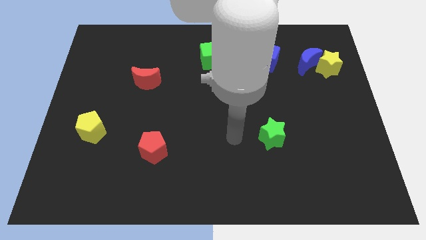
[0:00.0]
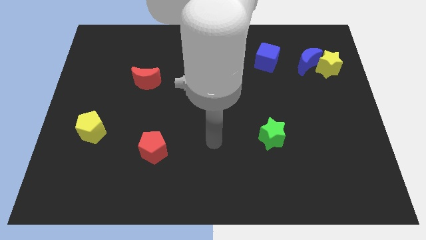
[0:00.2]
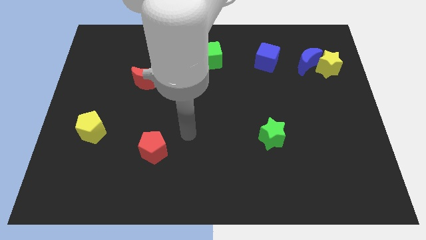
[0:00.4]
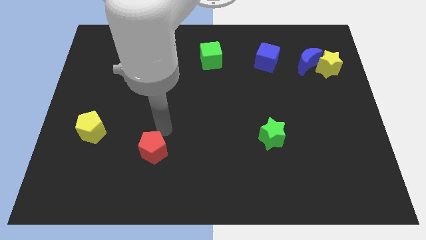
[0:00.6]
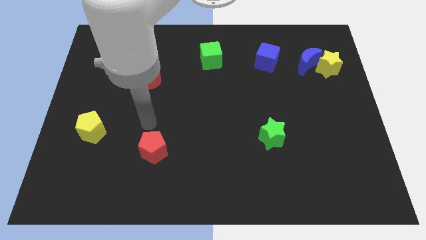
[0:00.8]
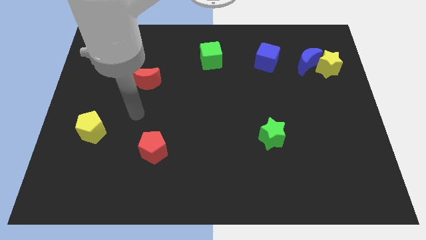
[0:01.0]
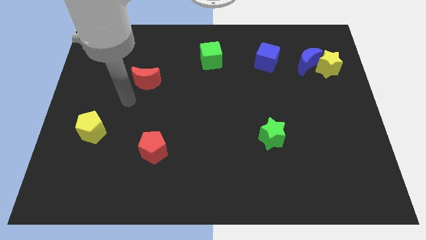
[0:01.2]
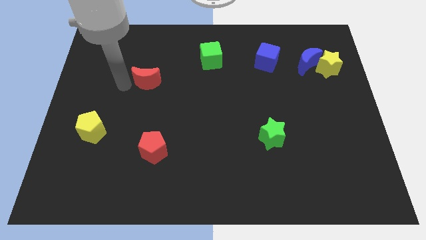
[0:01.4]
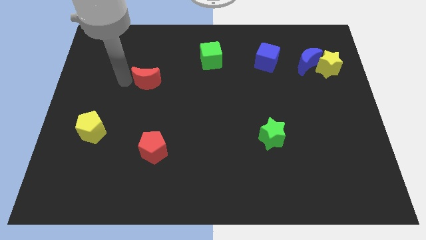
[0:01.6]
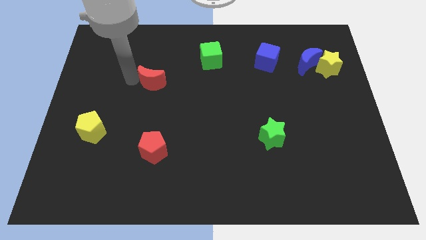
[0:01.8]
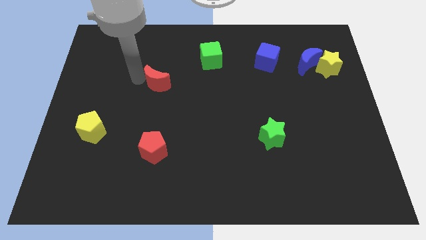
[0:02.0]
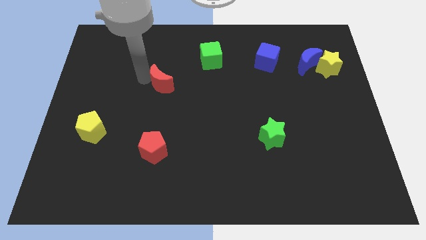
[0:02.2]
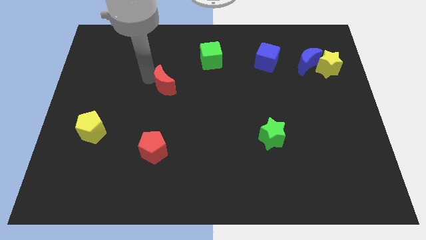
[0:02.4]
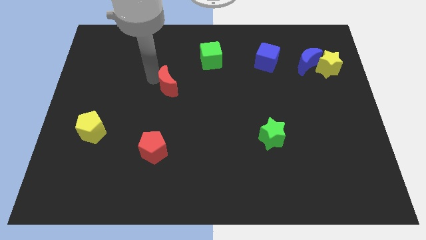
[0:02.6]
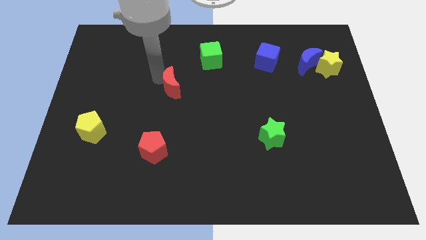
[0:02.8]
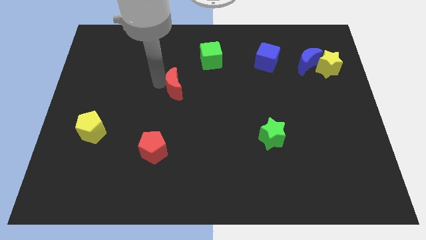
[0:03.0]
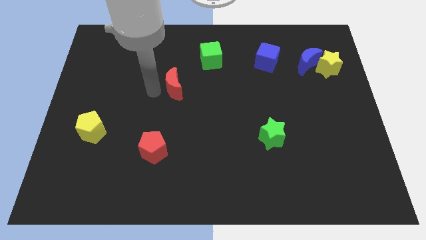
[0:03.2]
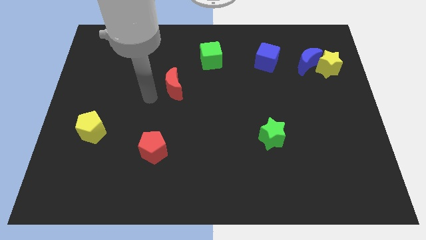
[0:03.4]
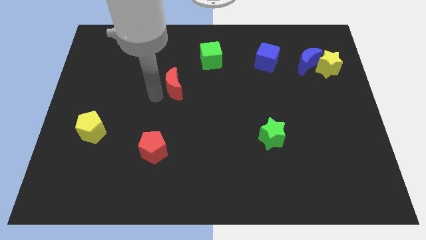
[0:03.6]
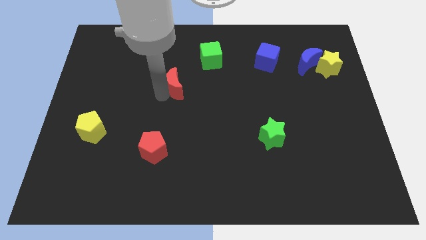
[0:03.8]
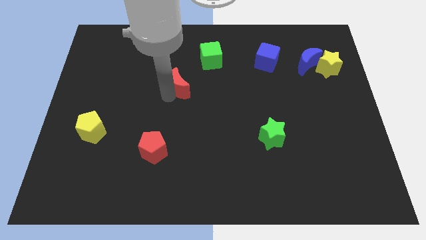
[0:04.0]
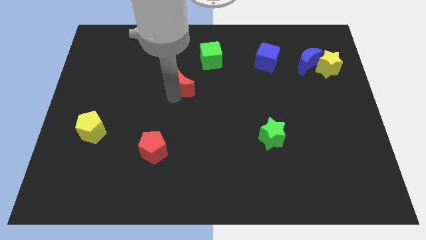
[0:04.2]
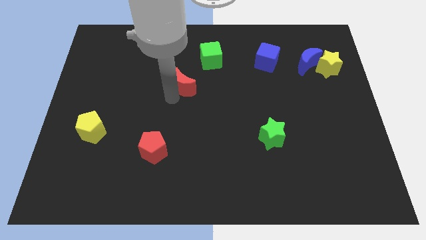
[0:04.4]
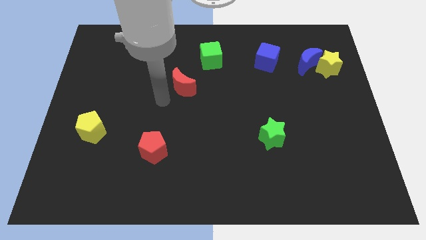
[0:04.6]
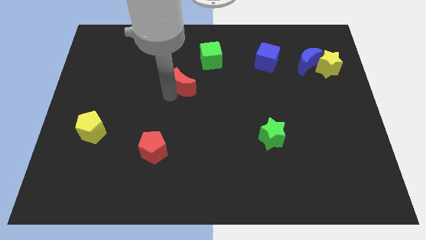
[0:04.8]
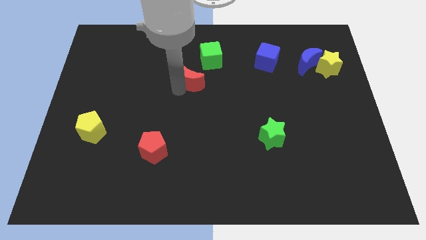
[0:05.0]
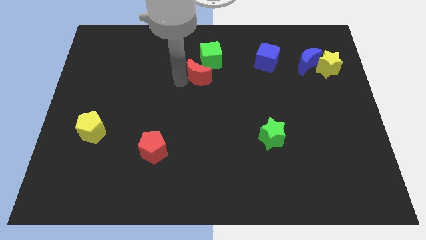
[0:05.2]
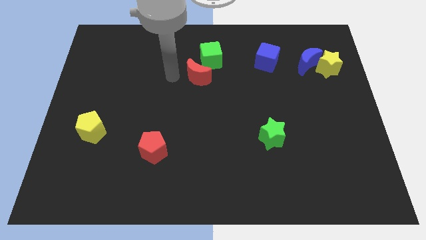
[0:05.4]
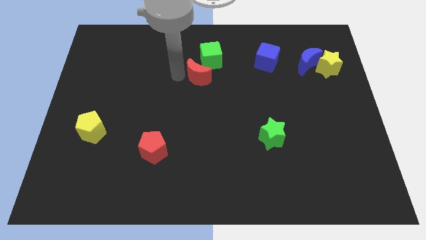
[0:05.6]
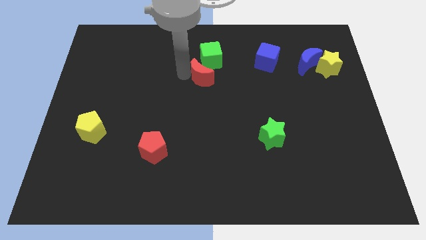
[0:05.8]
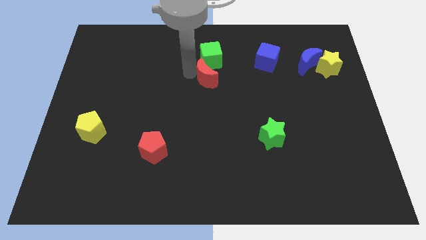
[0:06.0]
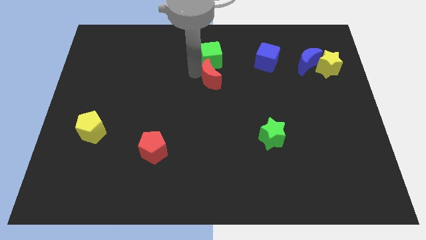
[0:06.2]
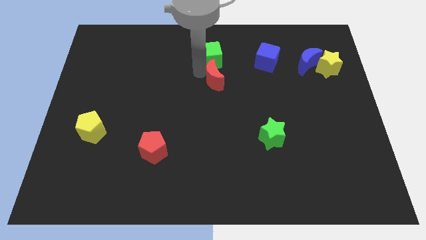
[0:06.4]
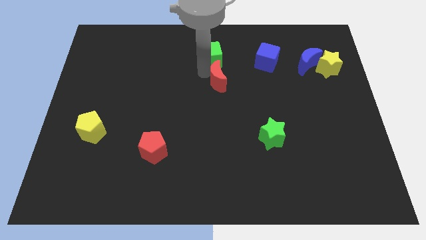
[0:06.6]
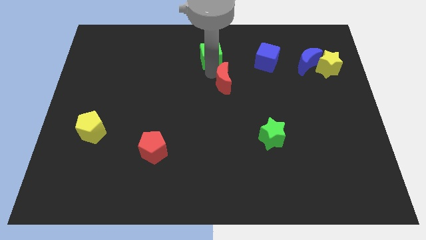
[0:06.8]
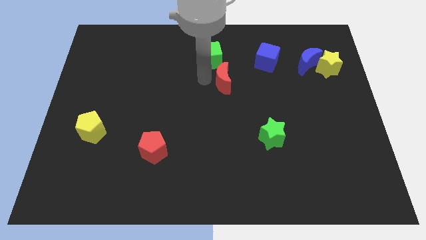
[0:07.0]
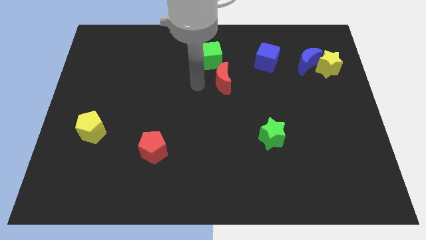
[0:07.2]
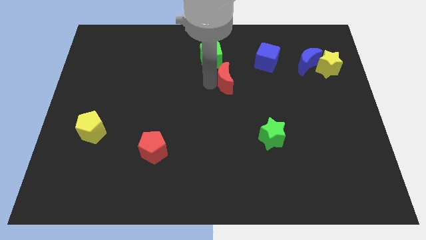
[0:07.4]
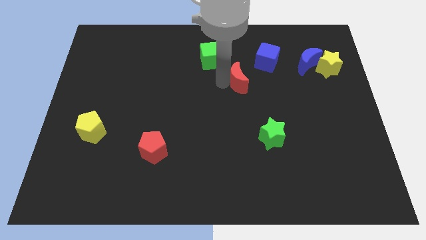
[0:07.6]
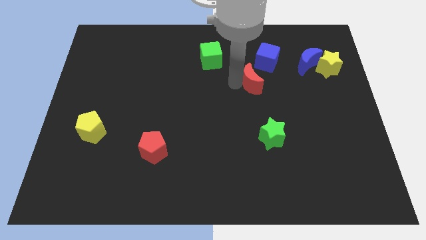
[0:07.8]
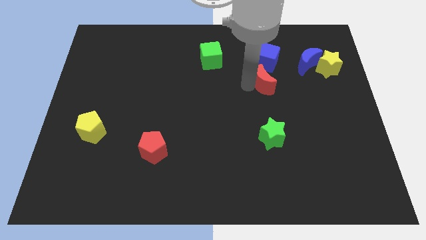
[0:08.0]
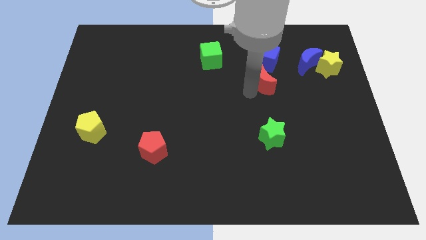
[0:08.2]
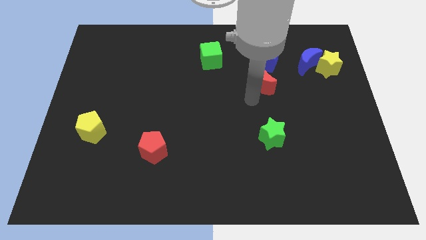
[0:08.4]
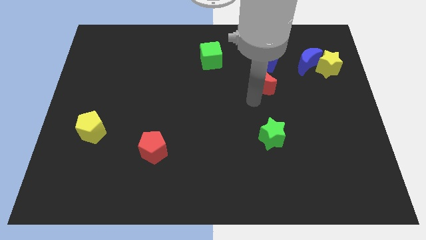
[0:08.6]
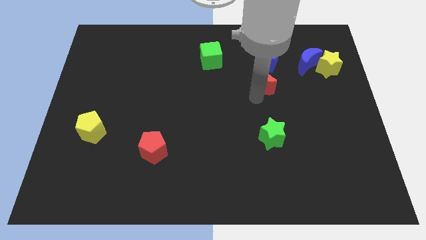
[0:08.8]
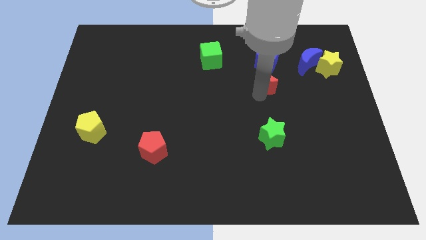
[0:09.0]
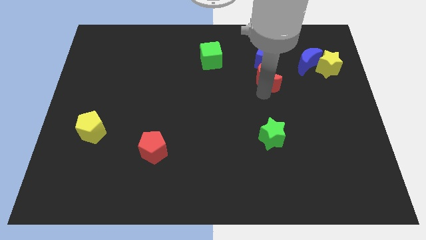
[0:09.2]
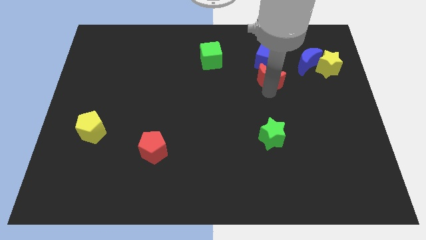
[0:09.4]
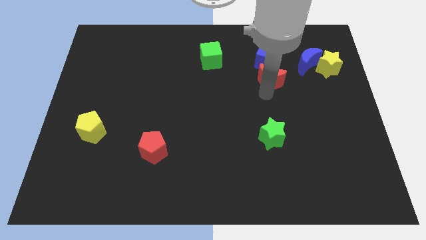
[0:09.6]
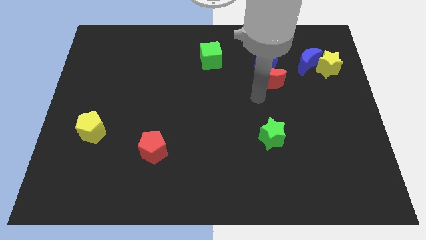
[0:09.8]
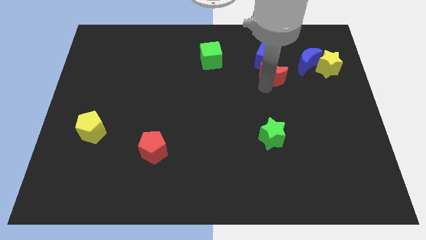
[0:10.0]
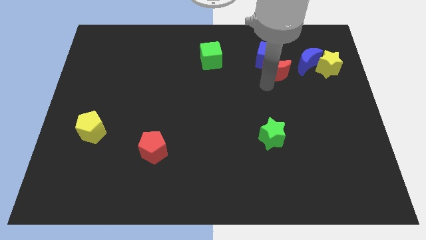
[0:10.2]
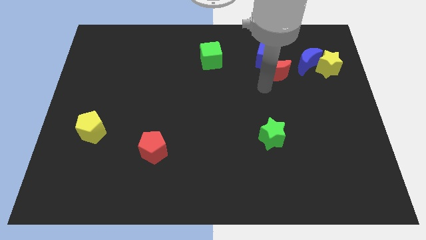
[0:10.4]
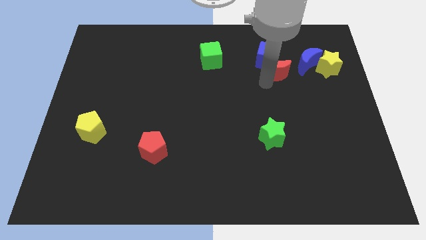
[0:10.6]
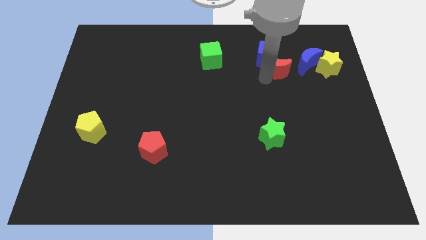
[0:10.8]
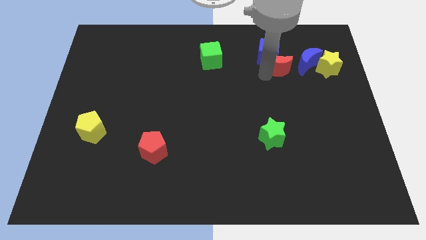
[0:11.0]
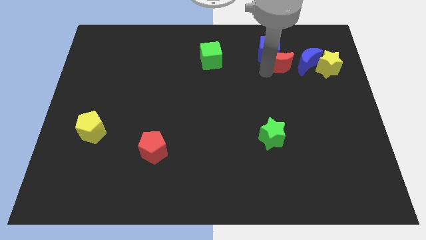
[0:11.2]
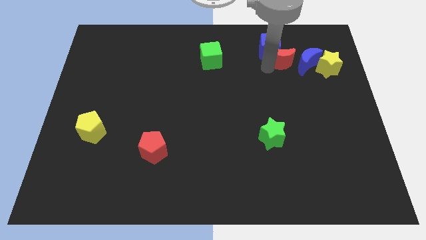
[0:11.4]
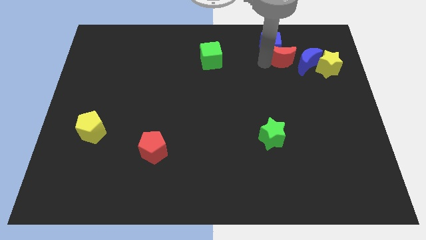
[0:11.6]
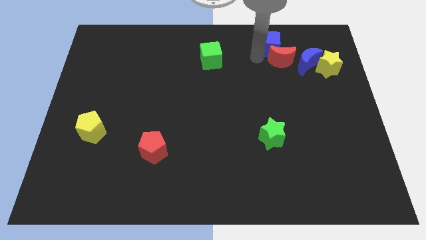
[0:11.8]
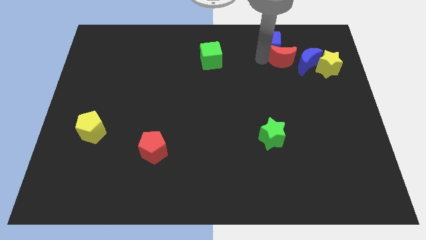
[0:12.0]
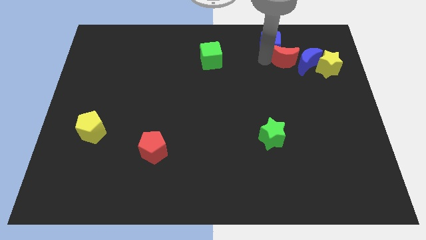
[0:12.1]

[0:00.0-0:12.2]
put the red moon next to the blue moon

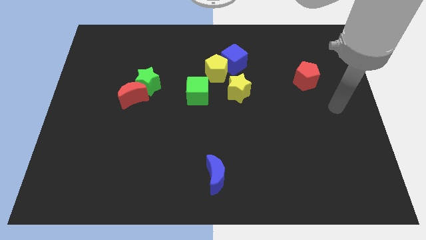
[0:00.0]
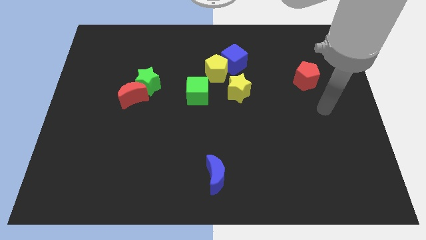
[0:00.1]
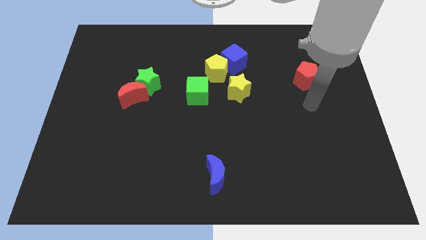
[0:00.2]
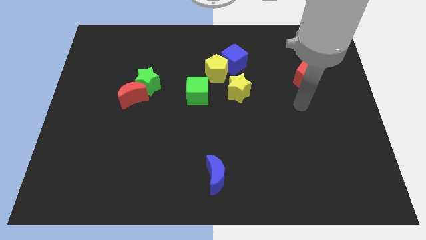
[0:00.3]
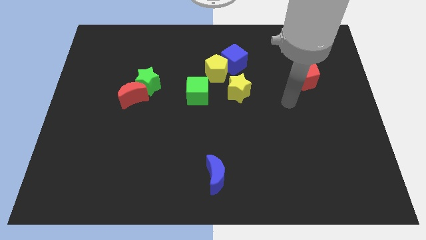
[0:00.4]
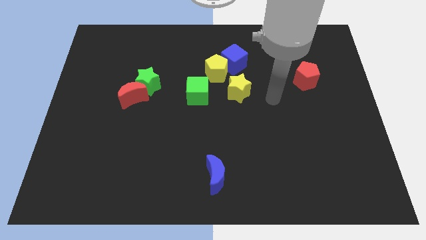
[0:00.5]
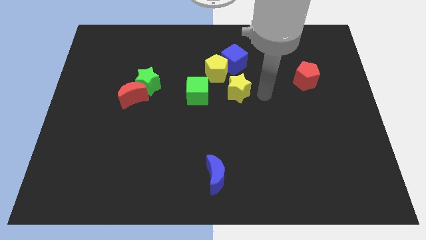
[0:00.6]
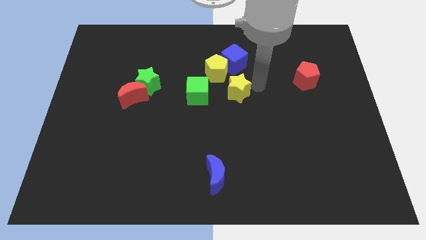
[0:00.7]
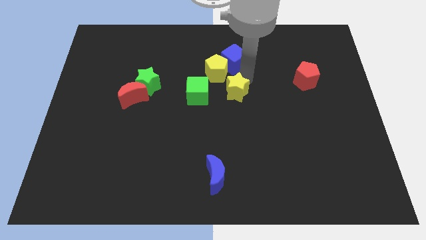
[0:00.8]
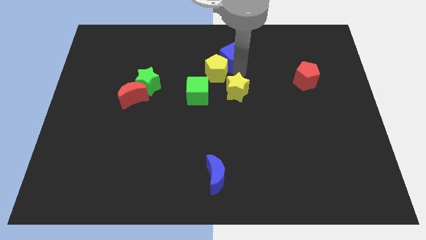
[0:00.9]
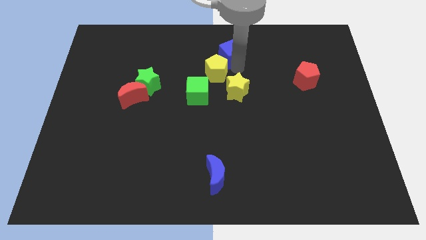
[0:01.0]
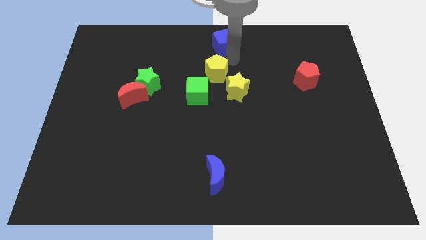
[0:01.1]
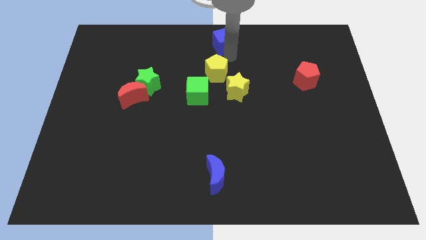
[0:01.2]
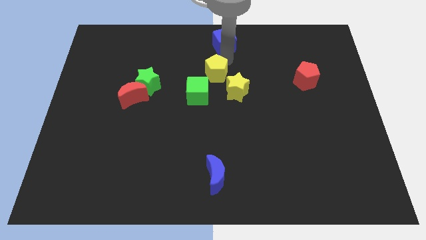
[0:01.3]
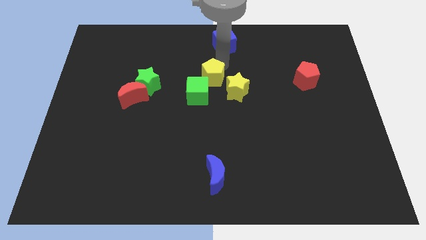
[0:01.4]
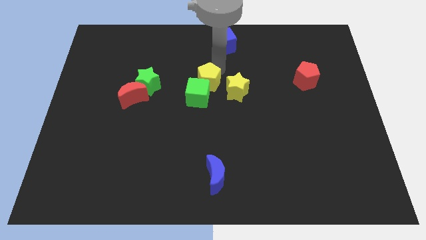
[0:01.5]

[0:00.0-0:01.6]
slide the yellow pentagon next to the green cube
